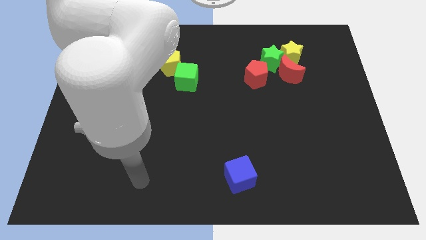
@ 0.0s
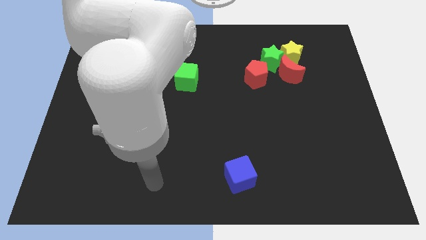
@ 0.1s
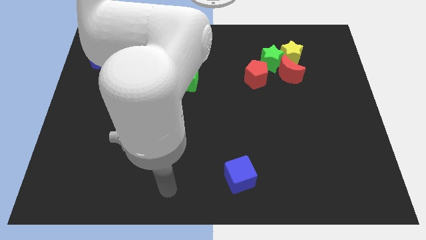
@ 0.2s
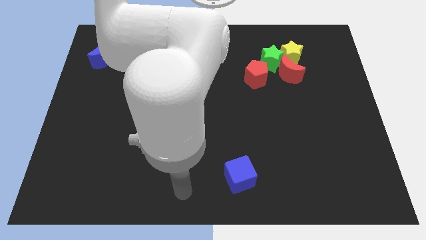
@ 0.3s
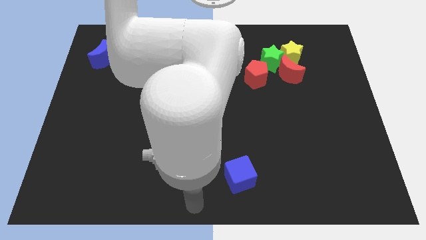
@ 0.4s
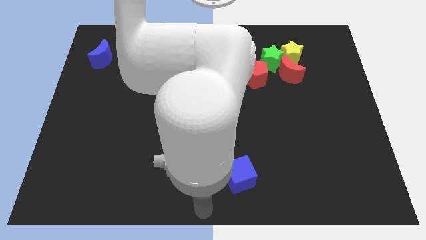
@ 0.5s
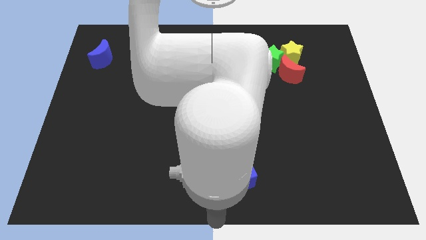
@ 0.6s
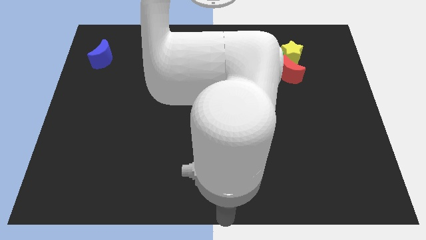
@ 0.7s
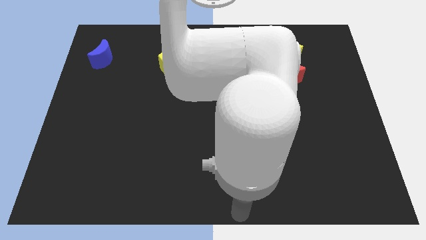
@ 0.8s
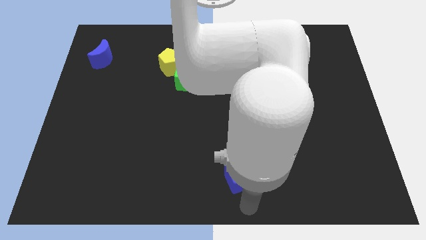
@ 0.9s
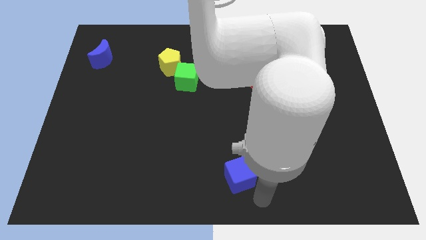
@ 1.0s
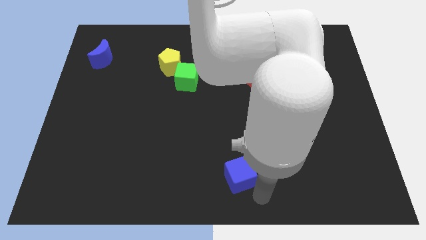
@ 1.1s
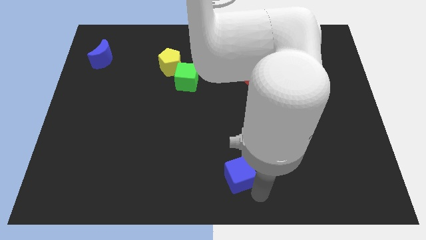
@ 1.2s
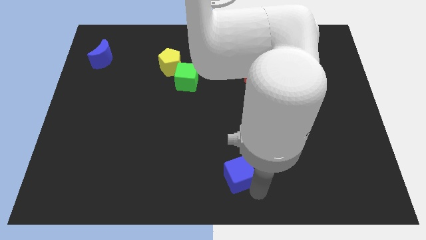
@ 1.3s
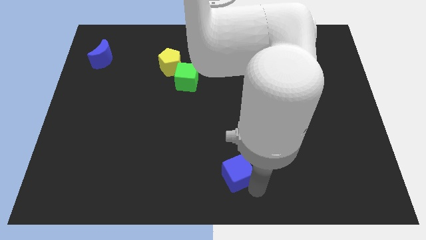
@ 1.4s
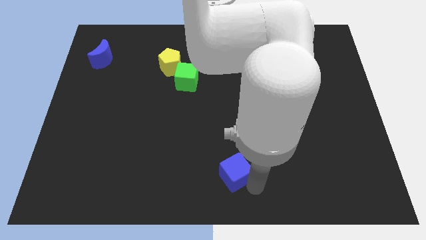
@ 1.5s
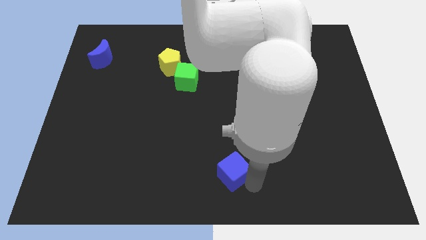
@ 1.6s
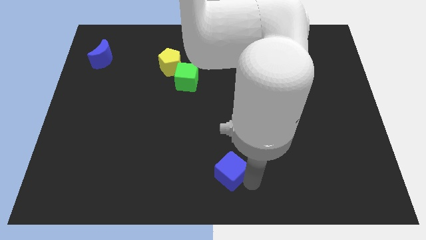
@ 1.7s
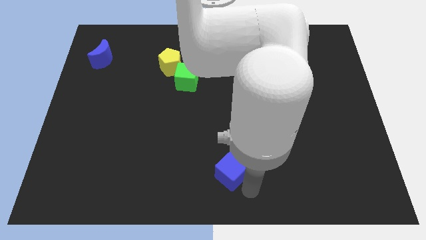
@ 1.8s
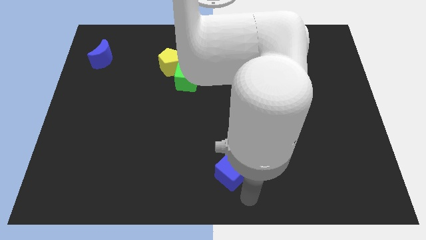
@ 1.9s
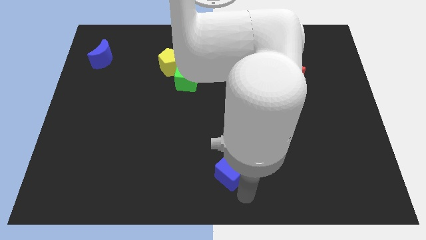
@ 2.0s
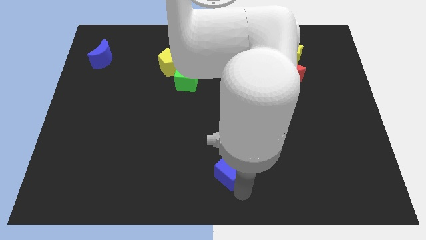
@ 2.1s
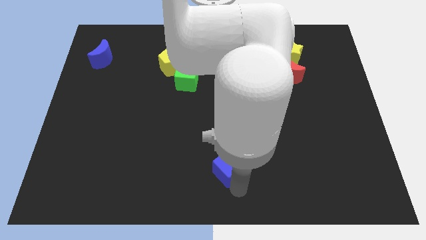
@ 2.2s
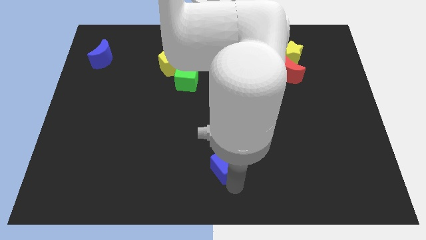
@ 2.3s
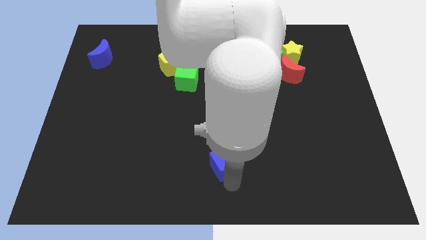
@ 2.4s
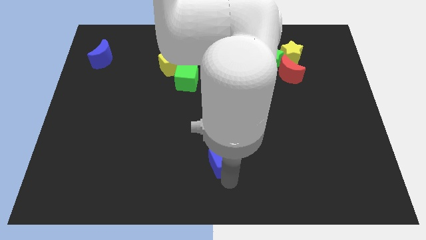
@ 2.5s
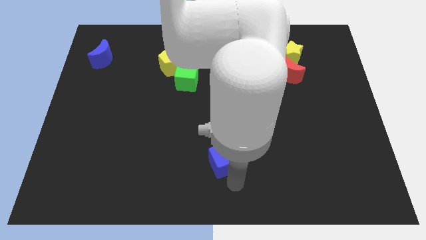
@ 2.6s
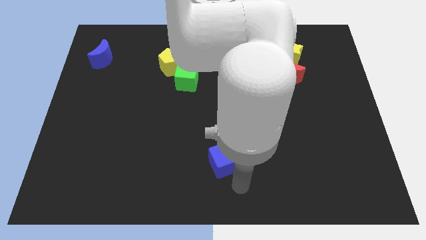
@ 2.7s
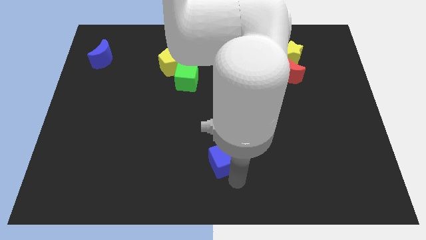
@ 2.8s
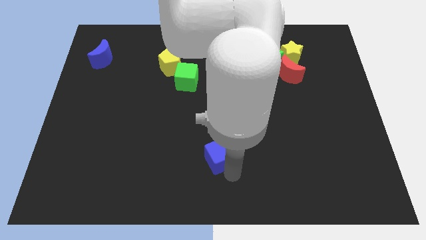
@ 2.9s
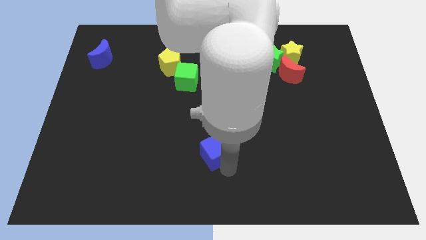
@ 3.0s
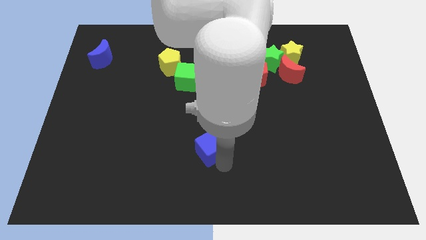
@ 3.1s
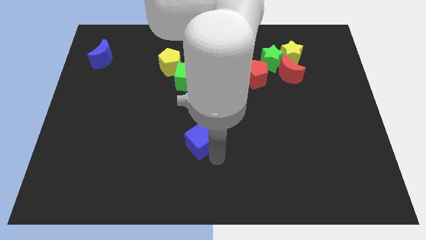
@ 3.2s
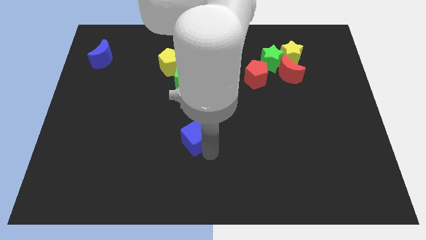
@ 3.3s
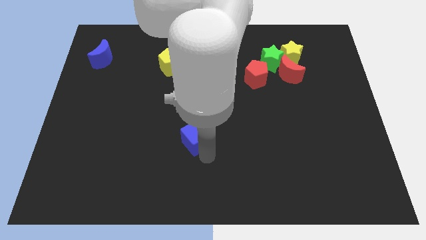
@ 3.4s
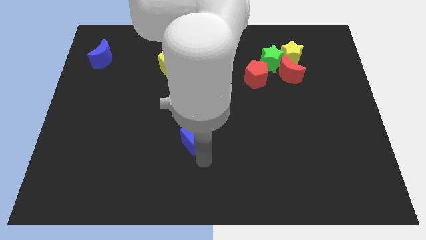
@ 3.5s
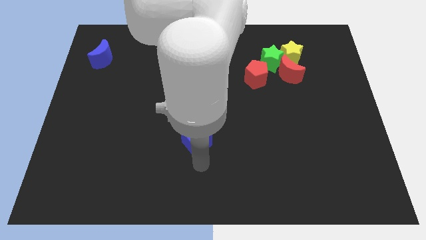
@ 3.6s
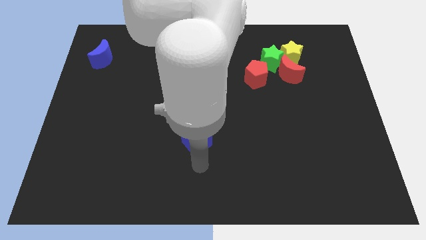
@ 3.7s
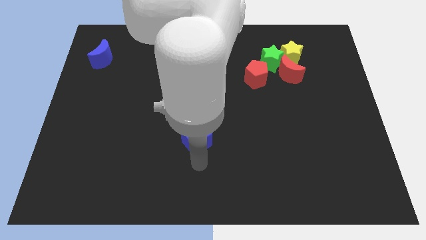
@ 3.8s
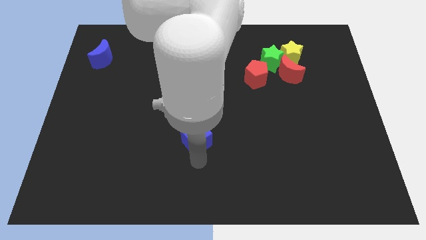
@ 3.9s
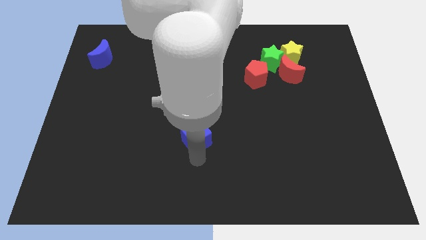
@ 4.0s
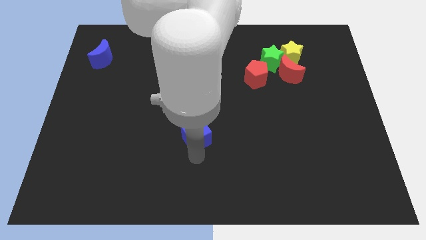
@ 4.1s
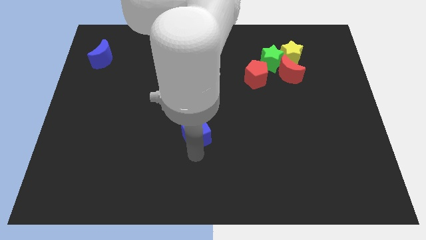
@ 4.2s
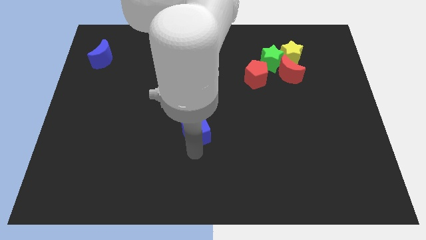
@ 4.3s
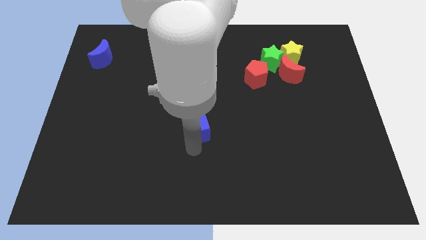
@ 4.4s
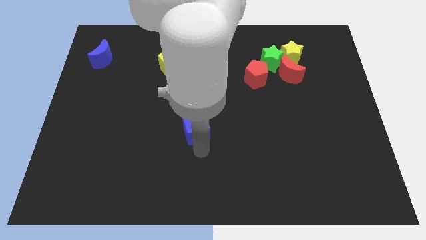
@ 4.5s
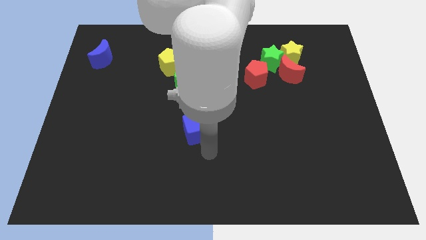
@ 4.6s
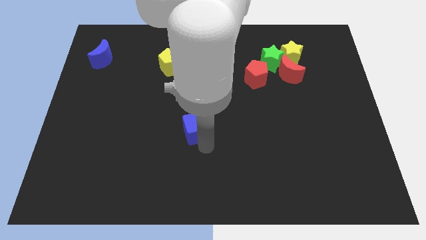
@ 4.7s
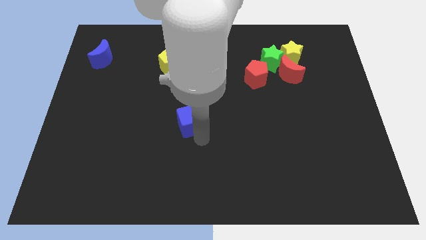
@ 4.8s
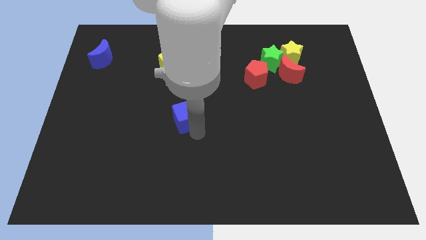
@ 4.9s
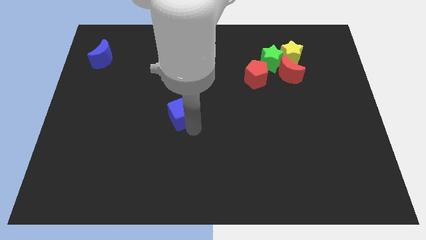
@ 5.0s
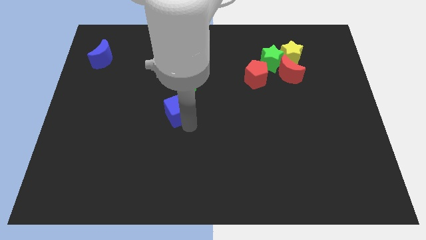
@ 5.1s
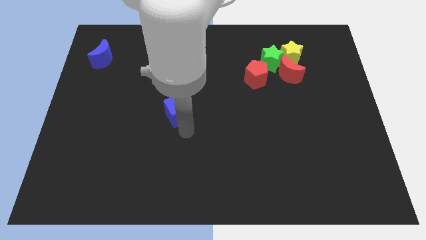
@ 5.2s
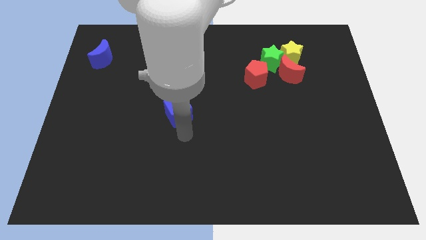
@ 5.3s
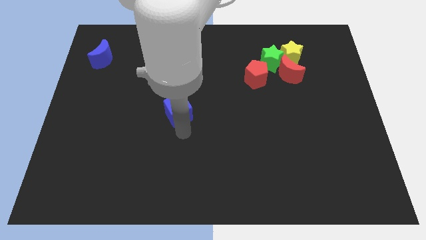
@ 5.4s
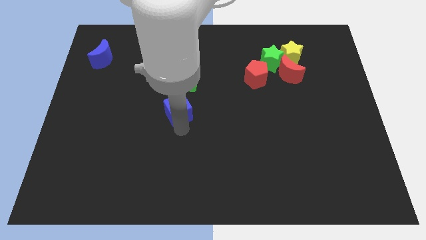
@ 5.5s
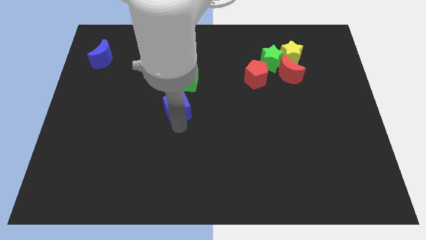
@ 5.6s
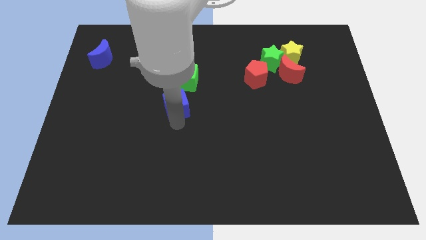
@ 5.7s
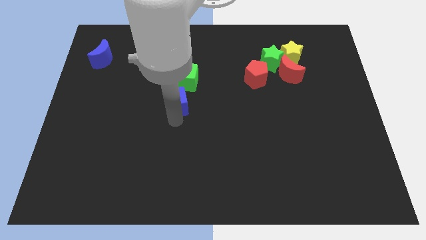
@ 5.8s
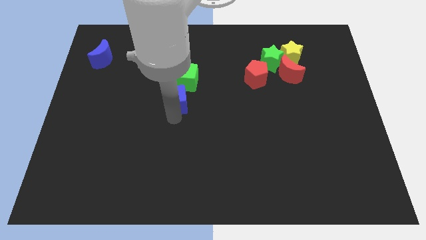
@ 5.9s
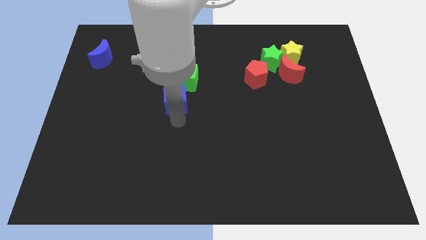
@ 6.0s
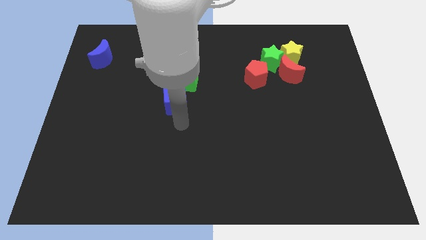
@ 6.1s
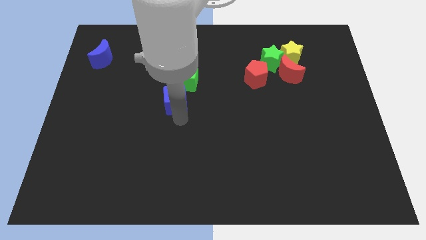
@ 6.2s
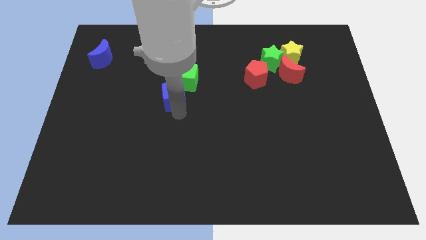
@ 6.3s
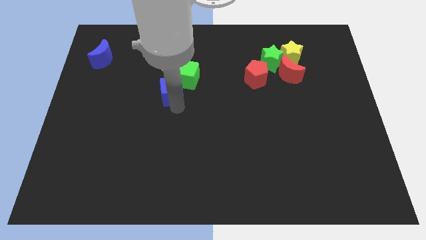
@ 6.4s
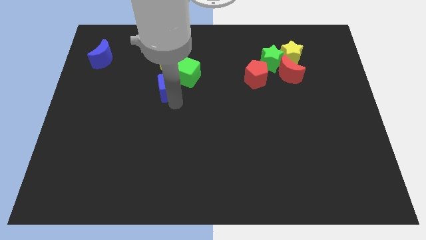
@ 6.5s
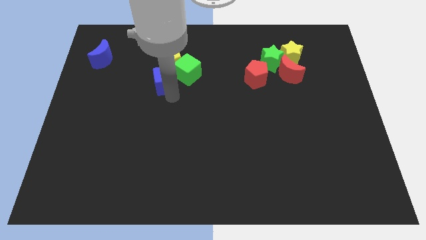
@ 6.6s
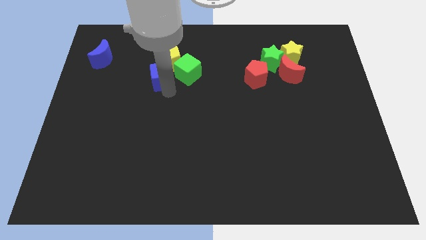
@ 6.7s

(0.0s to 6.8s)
move the blue cube close to the yellow pentagon
